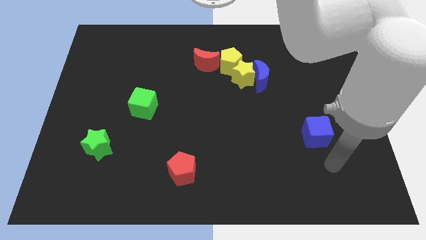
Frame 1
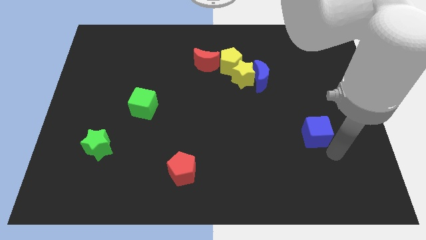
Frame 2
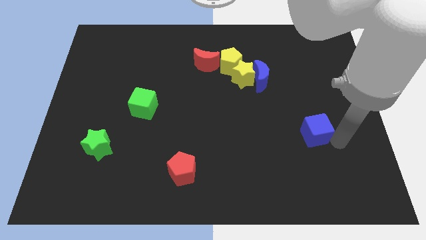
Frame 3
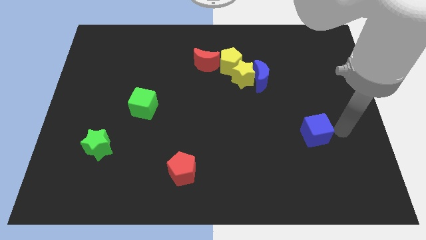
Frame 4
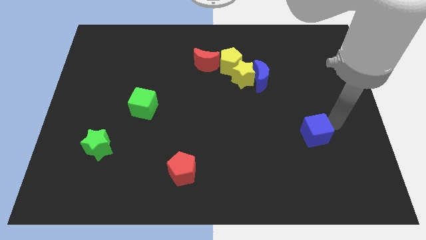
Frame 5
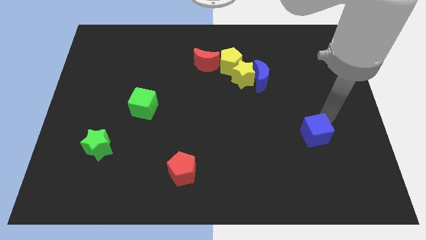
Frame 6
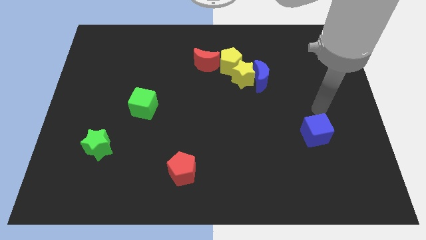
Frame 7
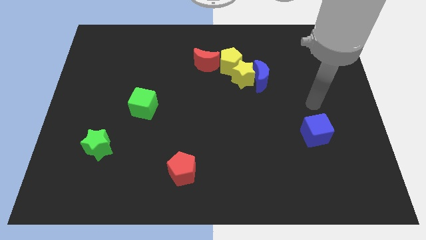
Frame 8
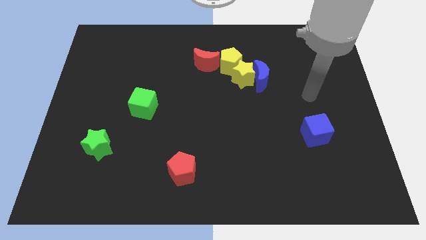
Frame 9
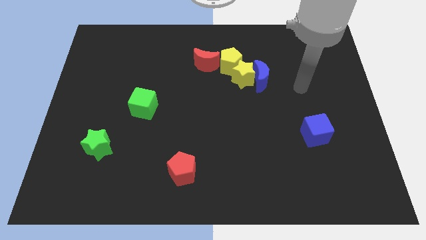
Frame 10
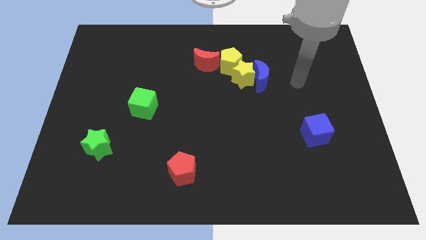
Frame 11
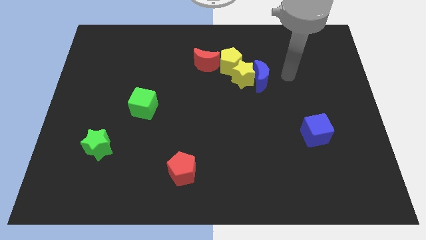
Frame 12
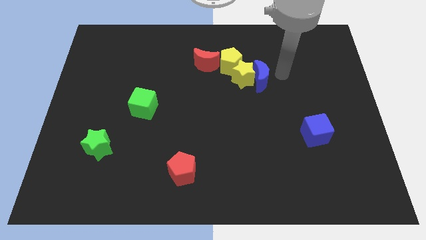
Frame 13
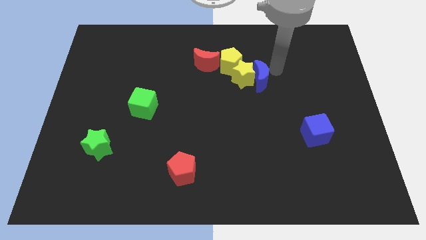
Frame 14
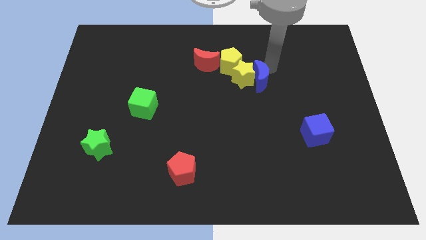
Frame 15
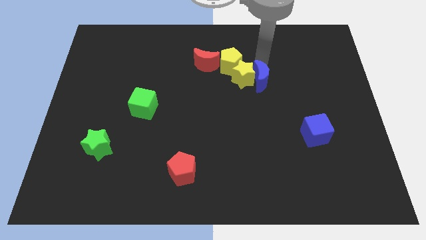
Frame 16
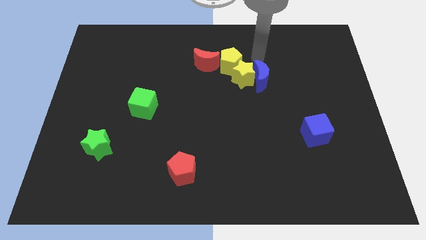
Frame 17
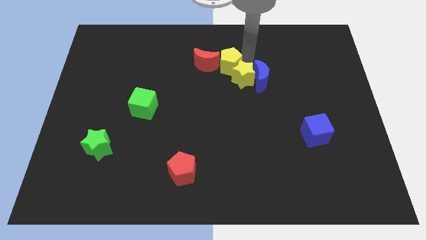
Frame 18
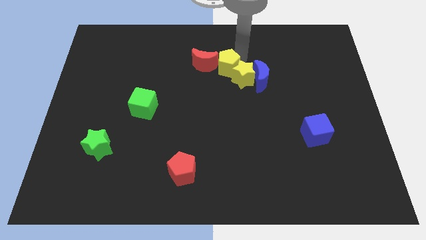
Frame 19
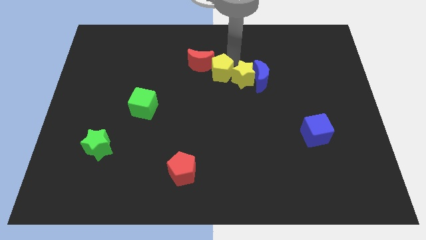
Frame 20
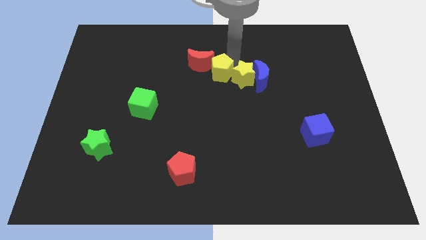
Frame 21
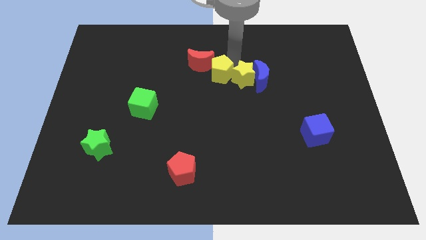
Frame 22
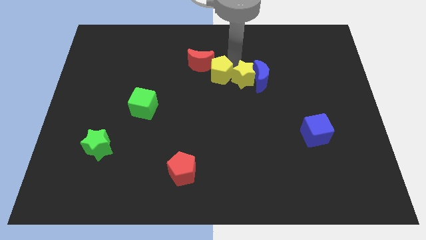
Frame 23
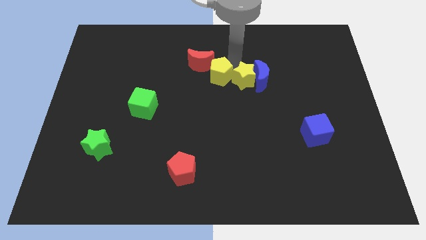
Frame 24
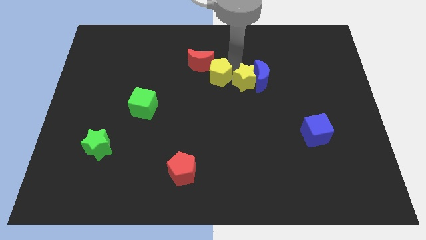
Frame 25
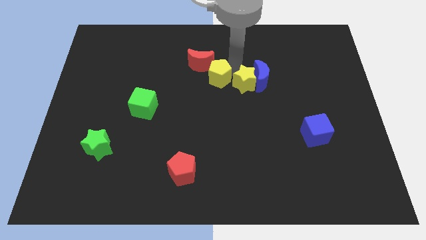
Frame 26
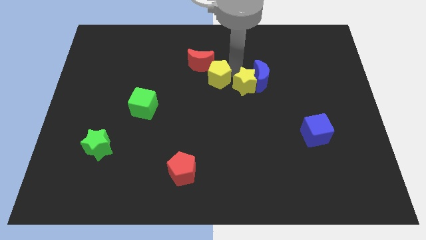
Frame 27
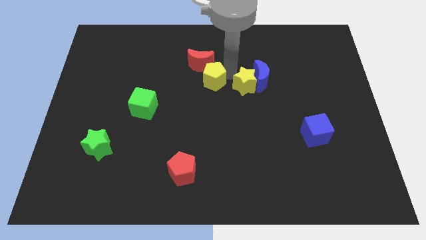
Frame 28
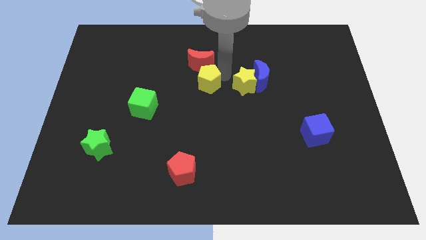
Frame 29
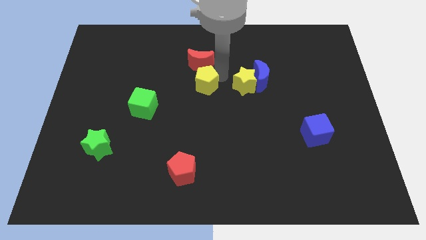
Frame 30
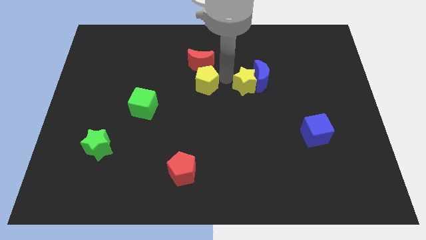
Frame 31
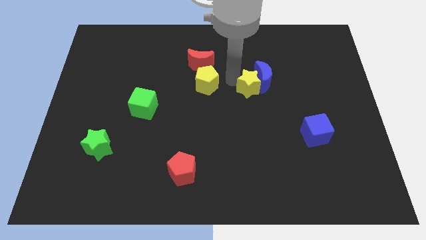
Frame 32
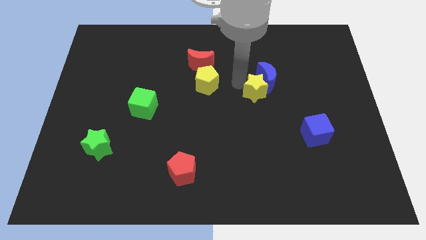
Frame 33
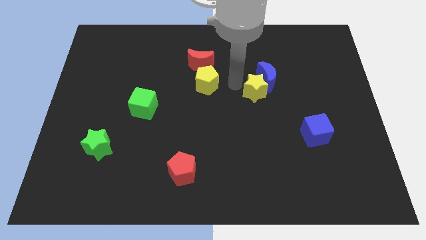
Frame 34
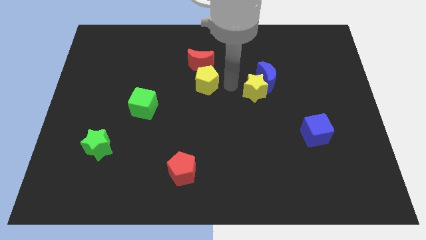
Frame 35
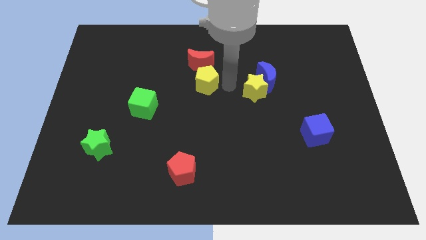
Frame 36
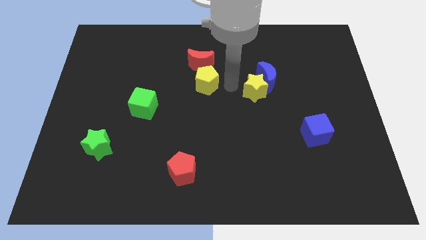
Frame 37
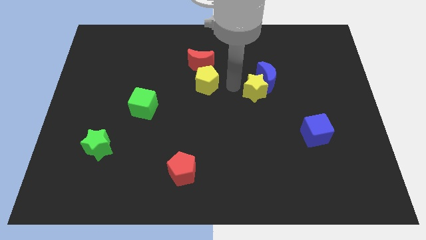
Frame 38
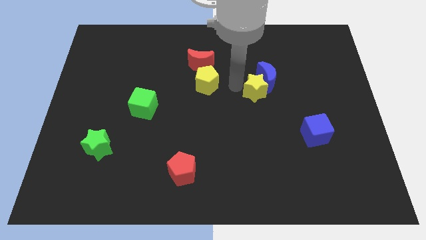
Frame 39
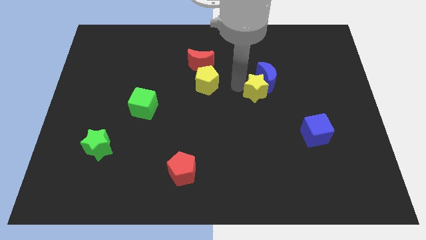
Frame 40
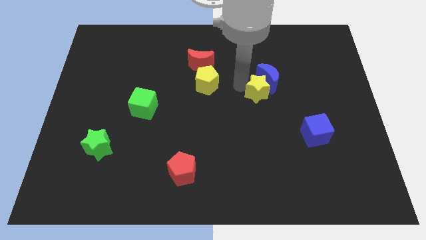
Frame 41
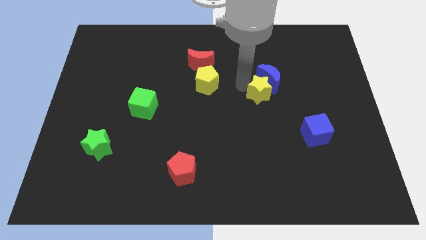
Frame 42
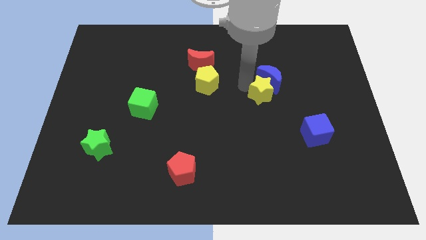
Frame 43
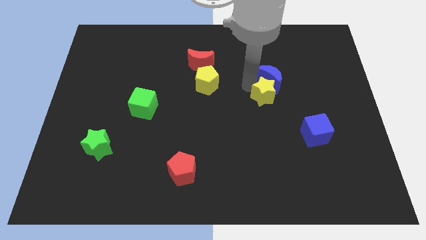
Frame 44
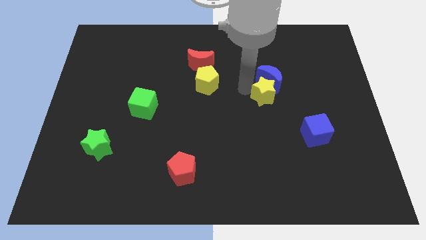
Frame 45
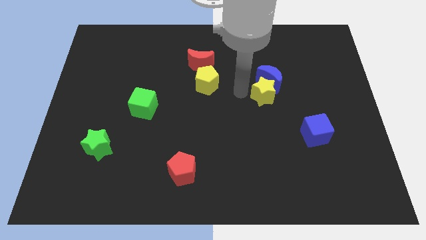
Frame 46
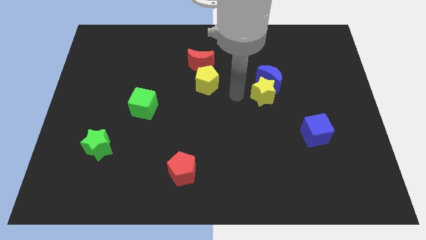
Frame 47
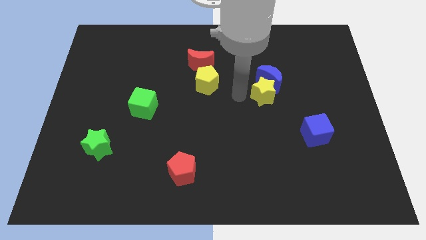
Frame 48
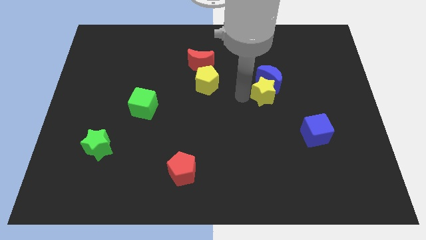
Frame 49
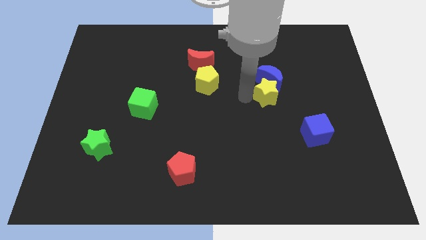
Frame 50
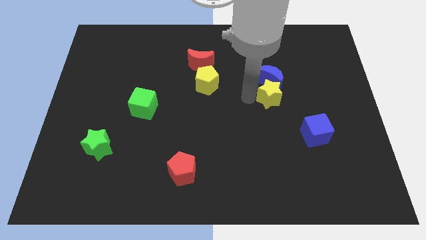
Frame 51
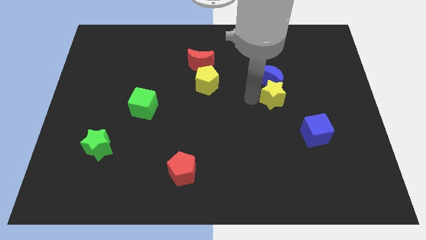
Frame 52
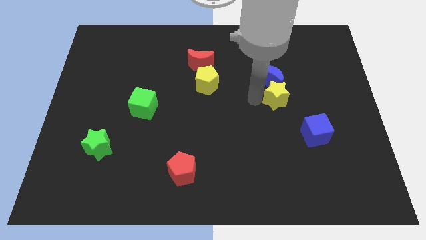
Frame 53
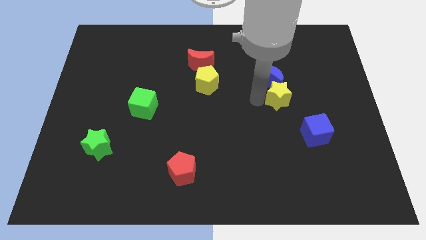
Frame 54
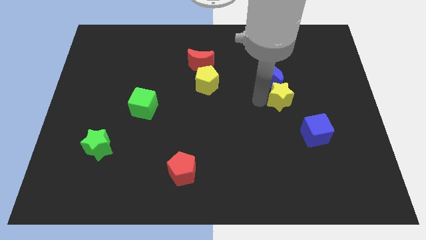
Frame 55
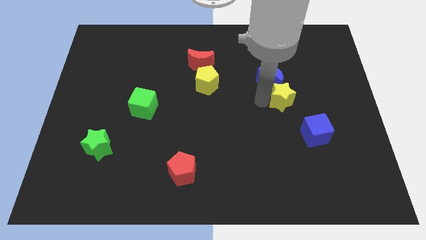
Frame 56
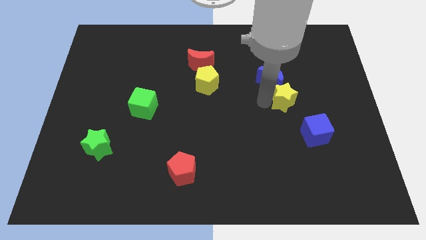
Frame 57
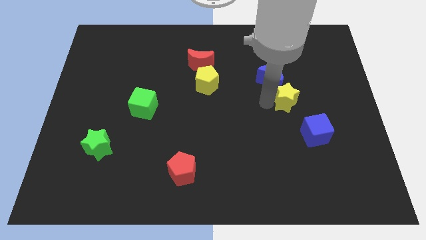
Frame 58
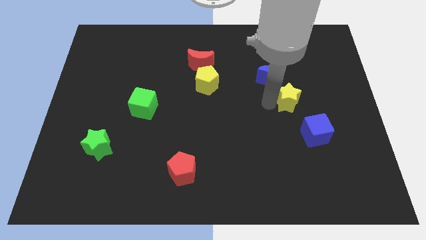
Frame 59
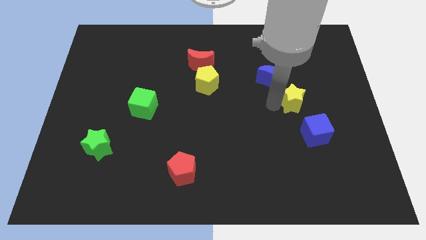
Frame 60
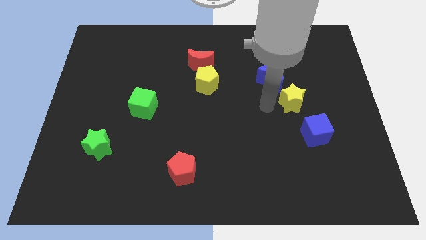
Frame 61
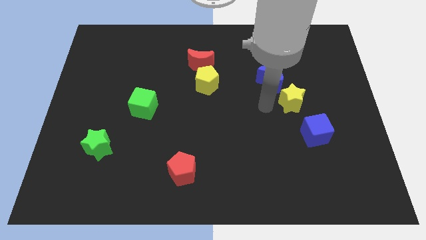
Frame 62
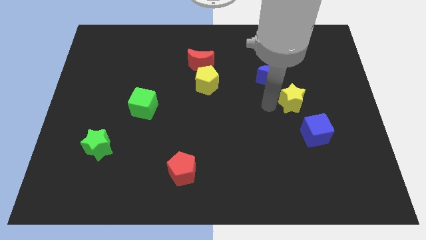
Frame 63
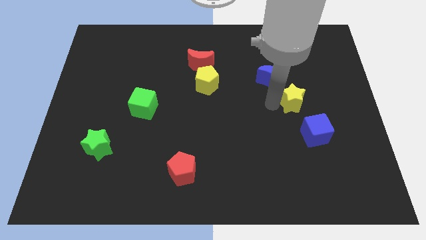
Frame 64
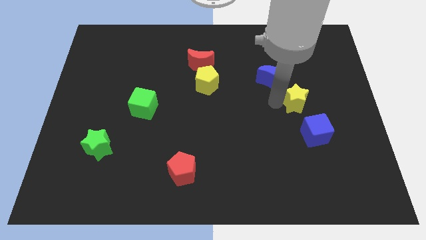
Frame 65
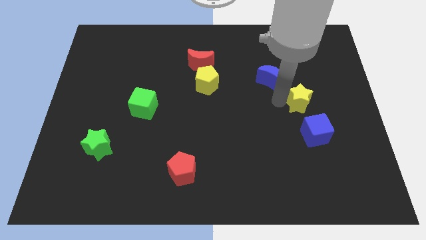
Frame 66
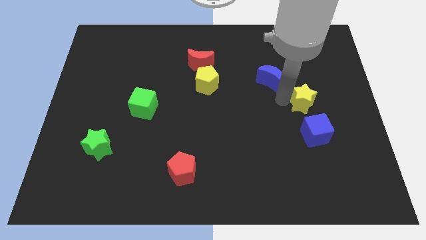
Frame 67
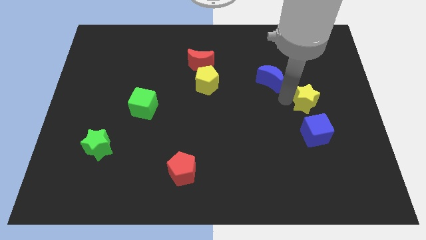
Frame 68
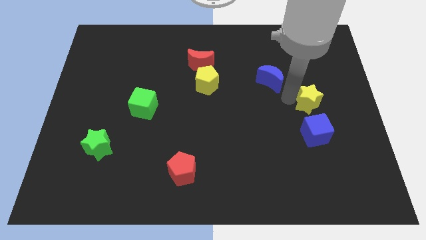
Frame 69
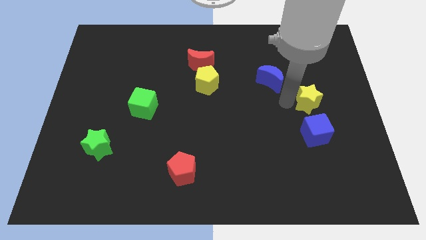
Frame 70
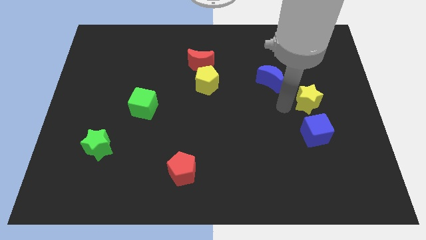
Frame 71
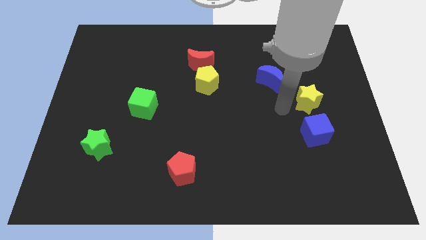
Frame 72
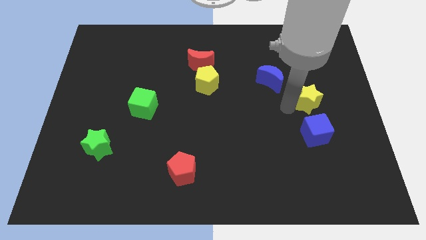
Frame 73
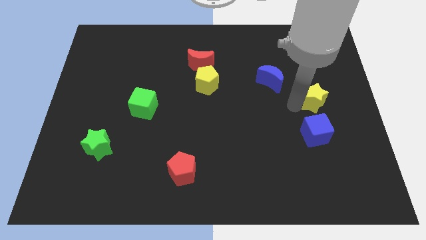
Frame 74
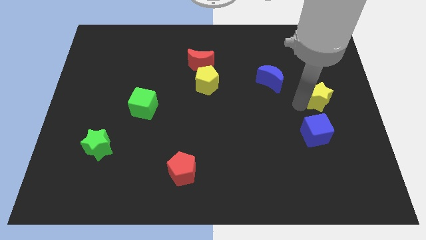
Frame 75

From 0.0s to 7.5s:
slide the yellow star to the right side
